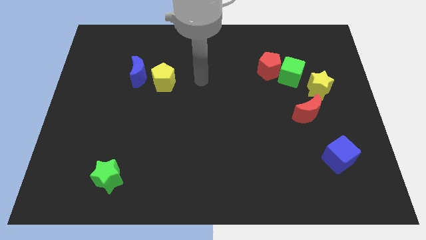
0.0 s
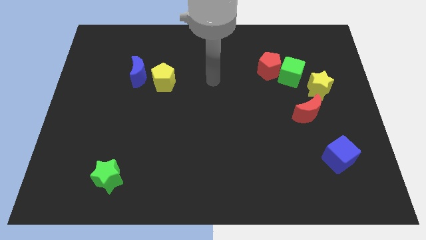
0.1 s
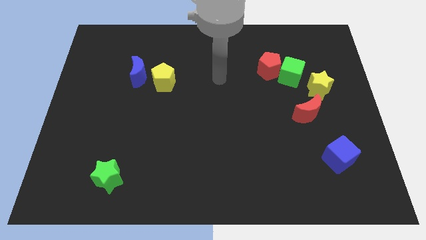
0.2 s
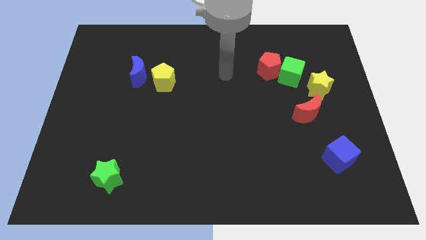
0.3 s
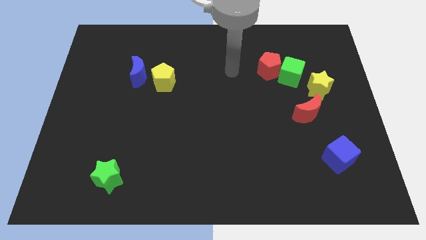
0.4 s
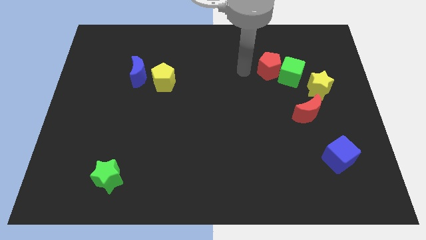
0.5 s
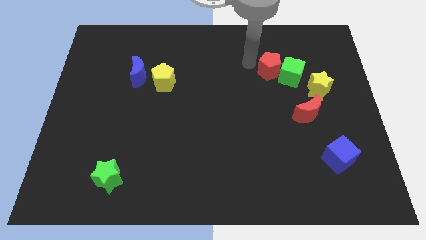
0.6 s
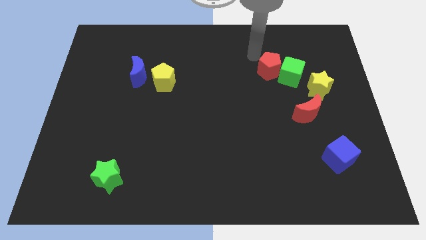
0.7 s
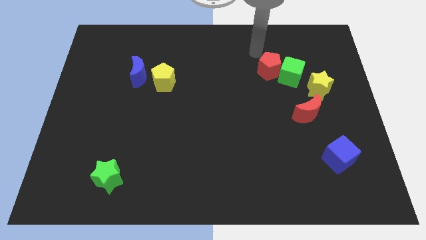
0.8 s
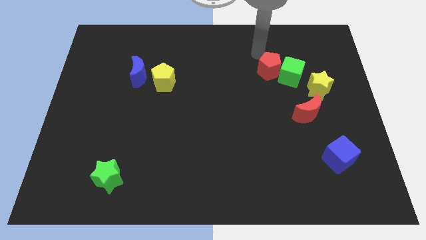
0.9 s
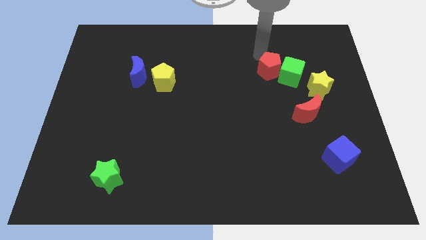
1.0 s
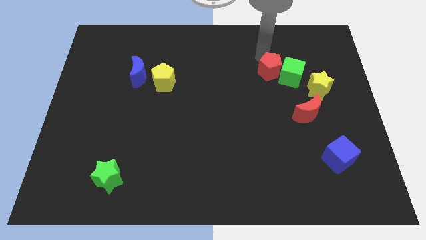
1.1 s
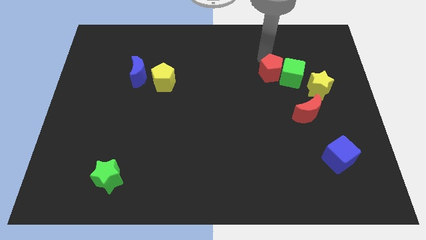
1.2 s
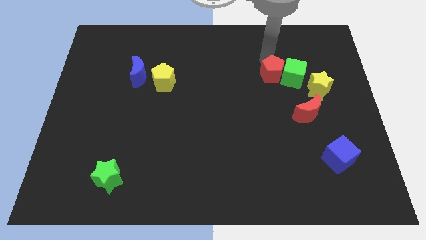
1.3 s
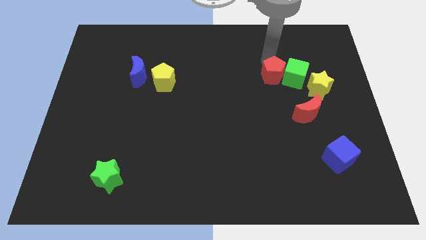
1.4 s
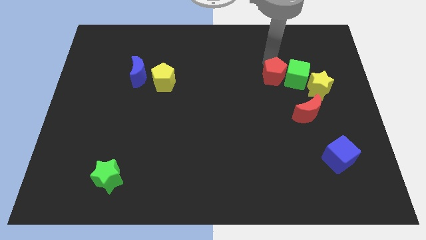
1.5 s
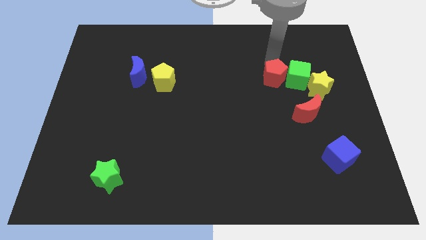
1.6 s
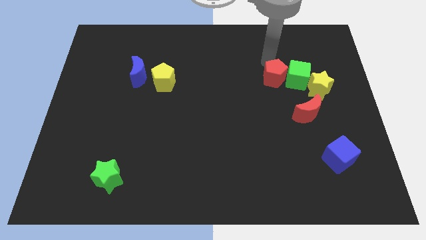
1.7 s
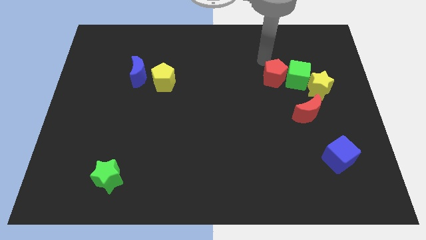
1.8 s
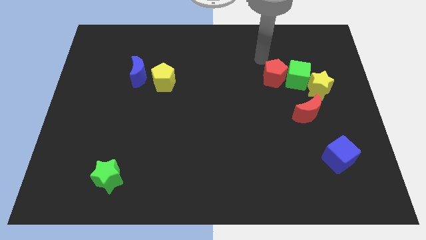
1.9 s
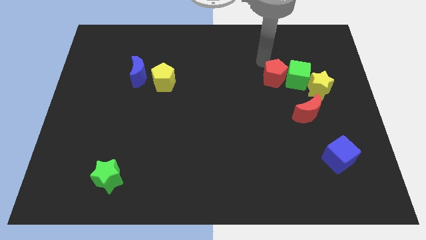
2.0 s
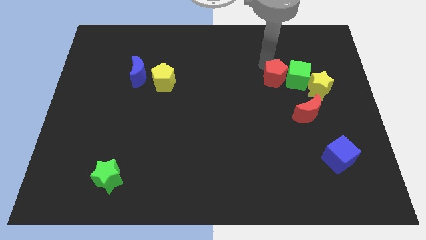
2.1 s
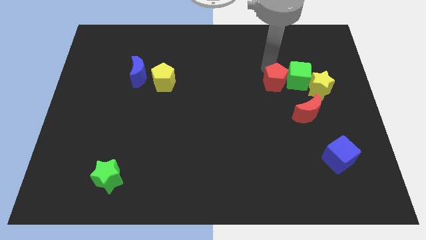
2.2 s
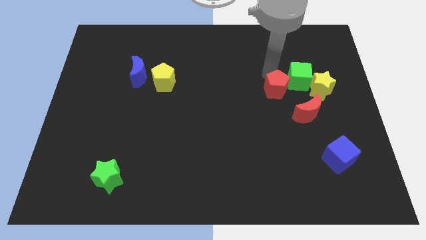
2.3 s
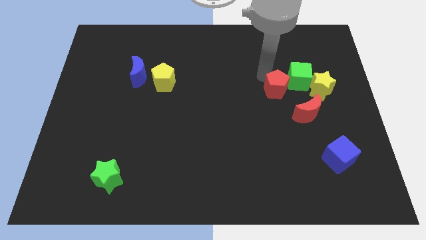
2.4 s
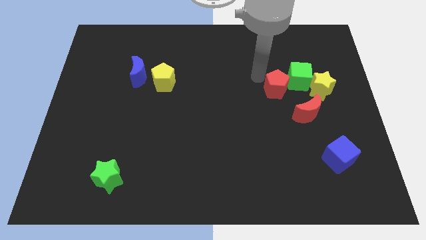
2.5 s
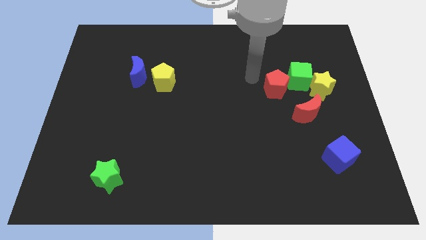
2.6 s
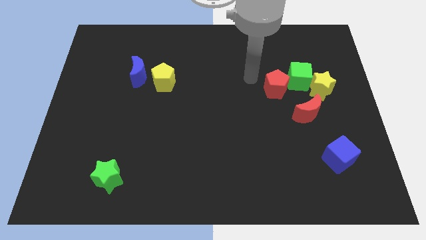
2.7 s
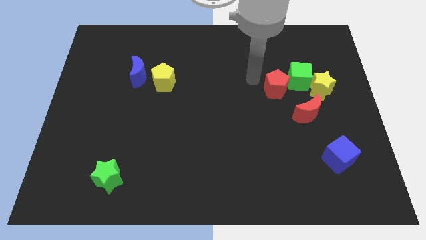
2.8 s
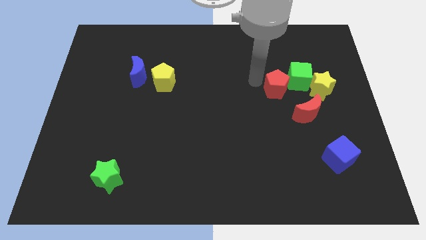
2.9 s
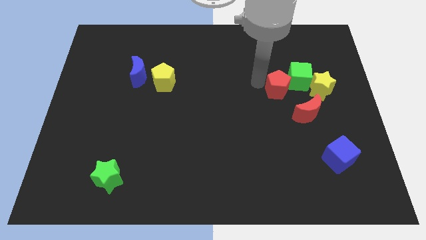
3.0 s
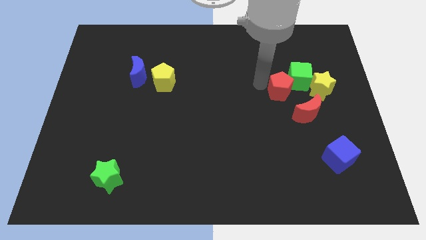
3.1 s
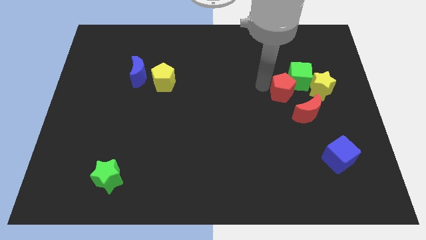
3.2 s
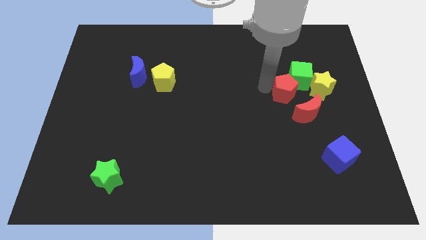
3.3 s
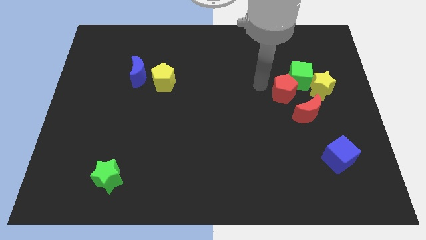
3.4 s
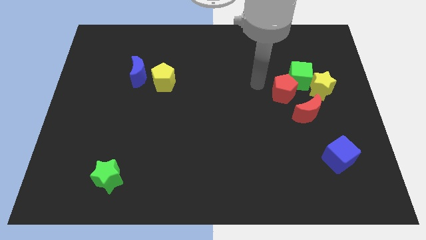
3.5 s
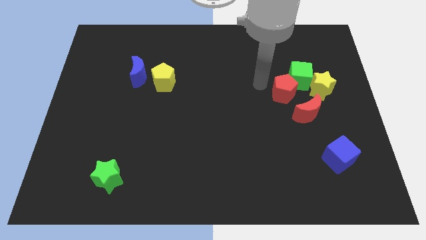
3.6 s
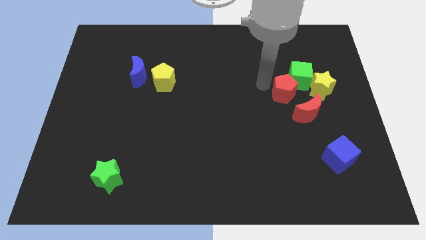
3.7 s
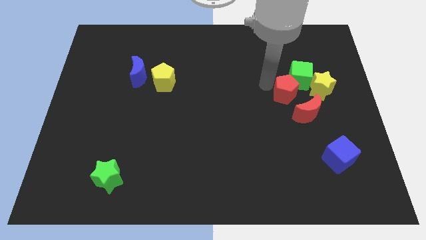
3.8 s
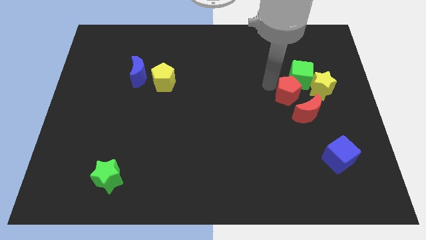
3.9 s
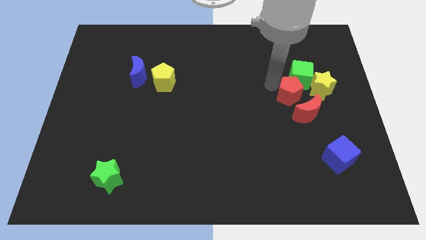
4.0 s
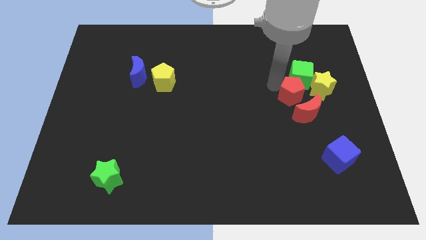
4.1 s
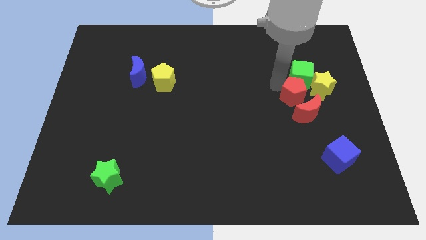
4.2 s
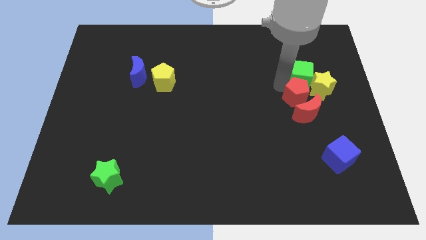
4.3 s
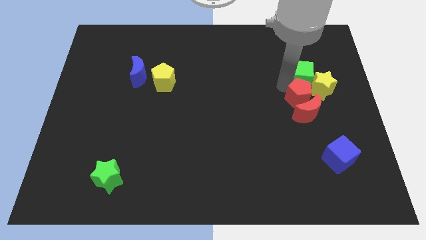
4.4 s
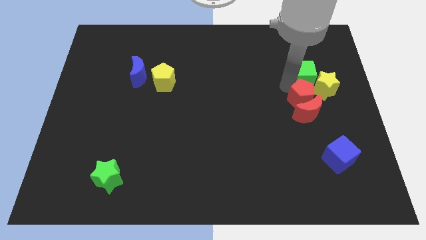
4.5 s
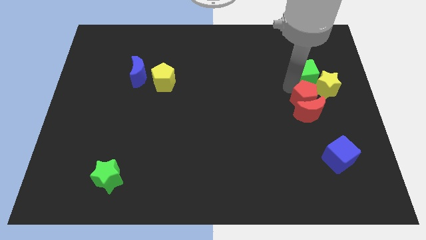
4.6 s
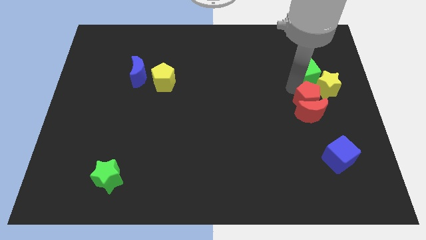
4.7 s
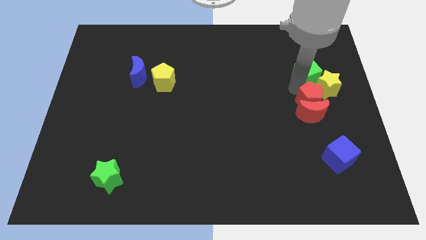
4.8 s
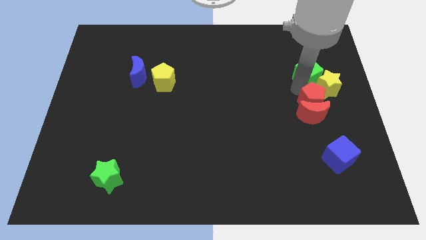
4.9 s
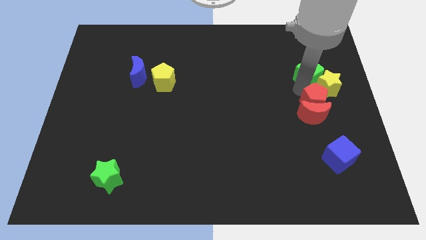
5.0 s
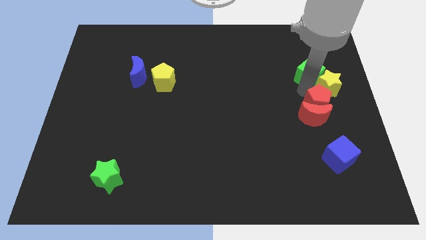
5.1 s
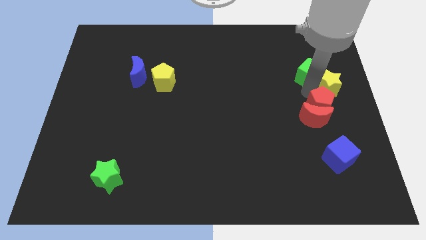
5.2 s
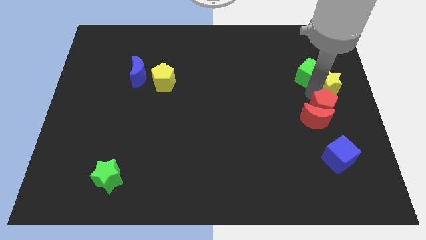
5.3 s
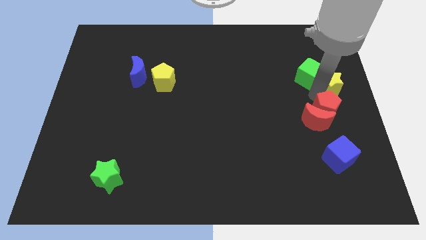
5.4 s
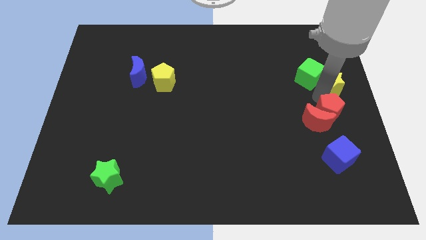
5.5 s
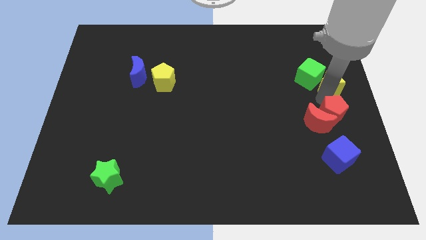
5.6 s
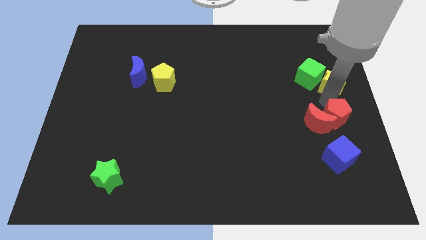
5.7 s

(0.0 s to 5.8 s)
put the red pentagon diagonally down and to the right of the red moon

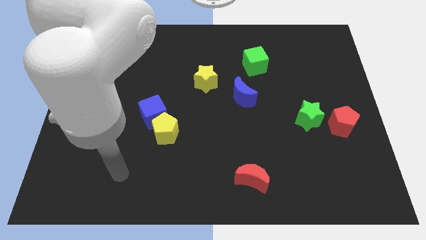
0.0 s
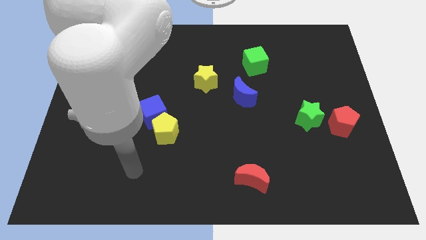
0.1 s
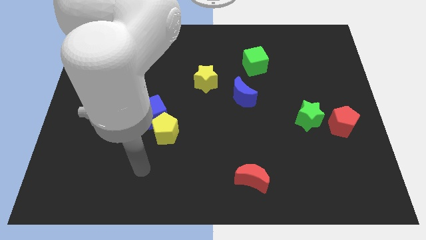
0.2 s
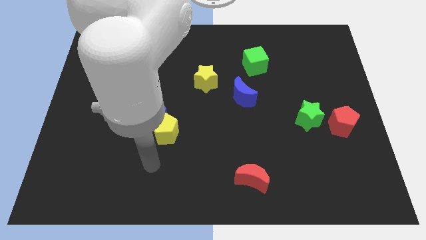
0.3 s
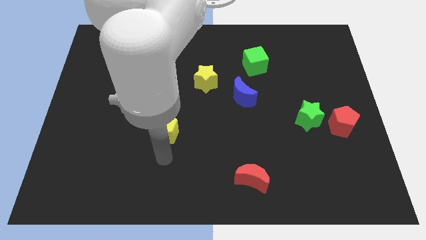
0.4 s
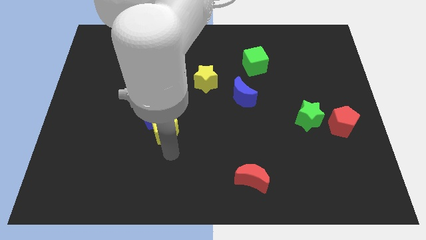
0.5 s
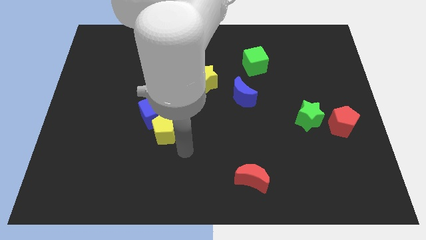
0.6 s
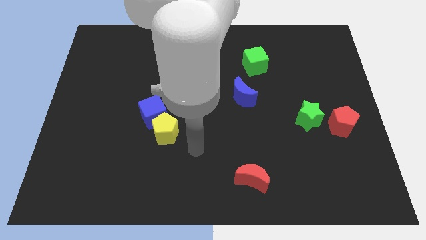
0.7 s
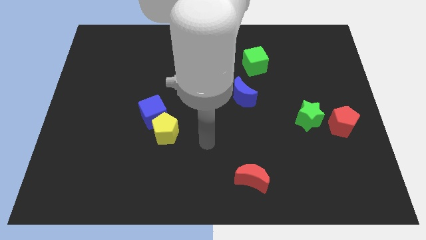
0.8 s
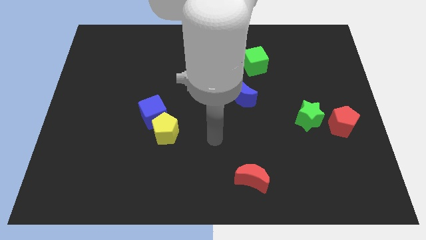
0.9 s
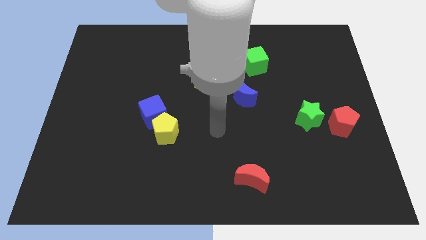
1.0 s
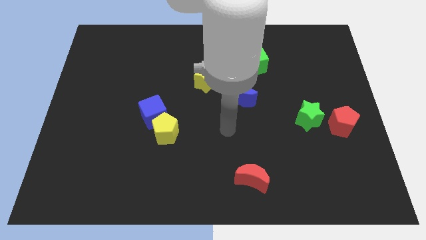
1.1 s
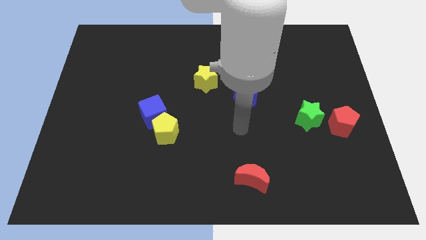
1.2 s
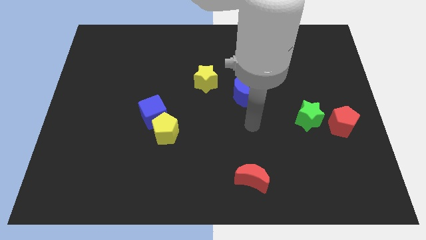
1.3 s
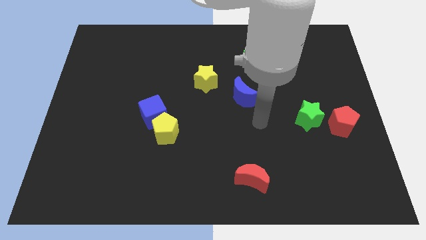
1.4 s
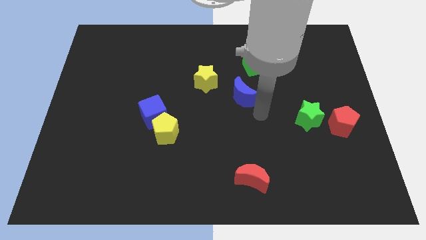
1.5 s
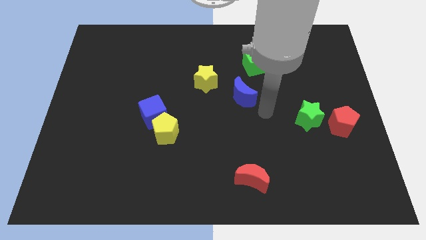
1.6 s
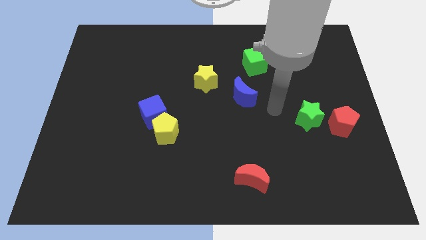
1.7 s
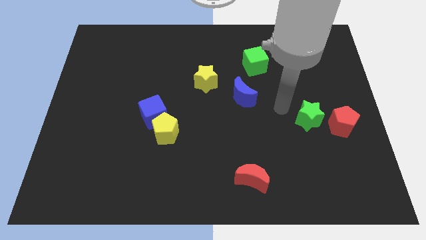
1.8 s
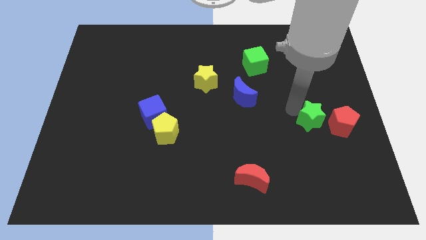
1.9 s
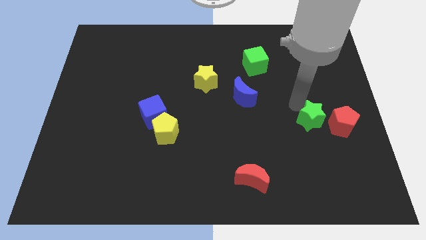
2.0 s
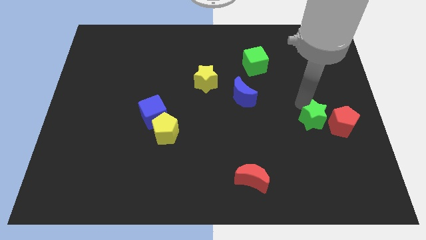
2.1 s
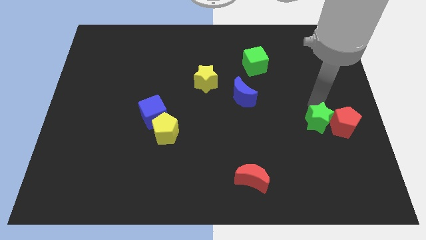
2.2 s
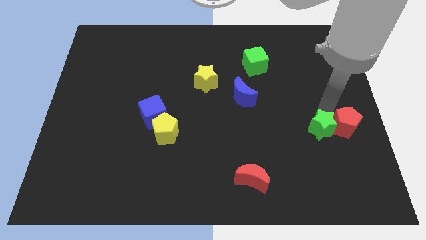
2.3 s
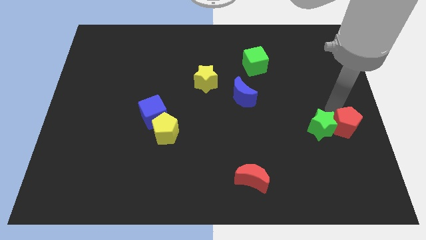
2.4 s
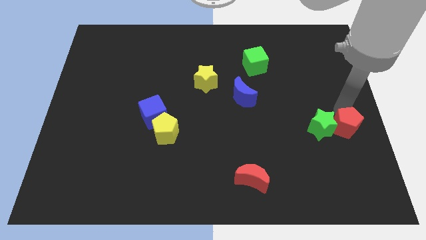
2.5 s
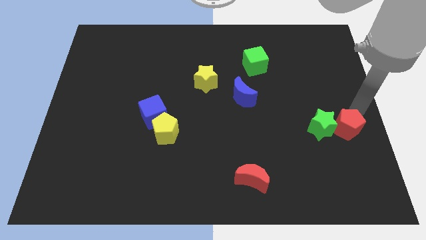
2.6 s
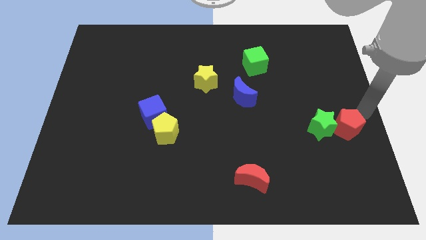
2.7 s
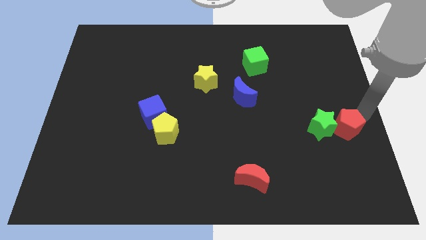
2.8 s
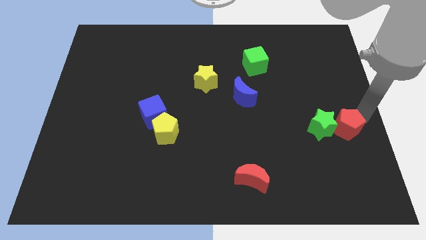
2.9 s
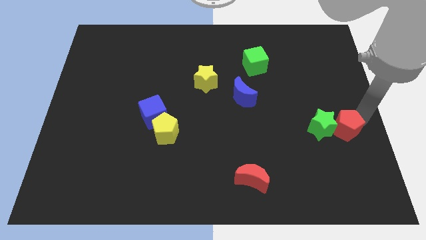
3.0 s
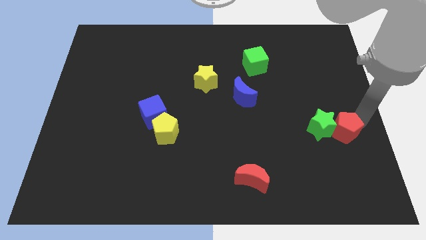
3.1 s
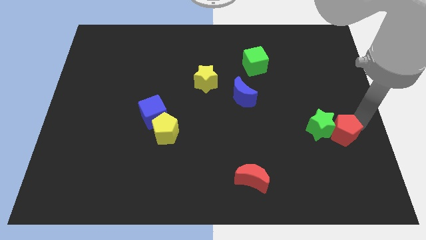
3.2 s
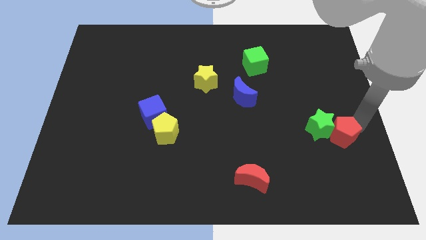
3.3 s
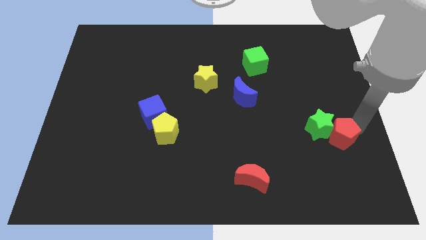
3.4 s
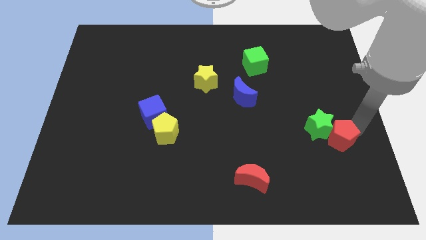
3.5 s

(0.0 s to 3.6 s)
put the red pentagon below the green star
